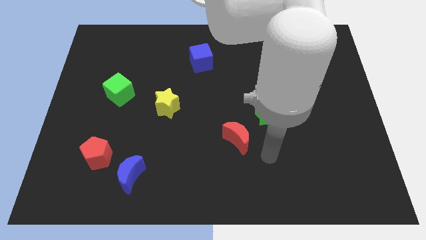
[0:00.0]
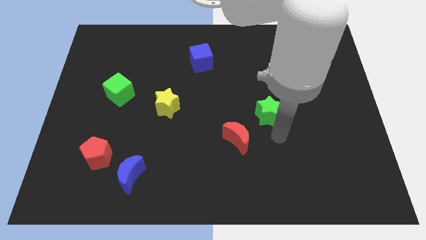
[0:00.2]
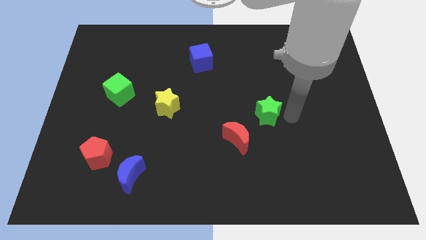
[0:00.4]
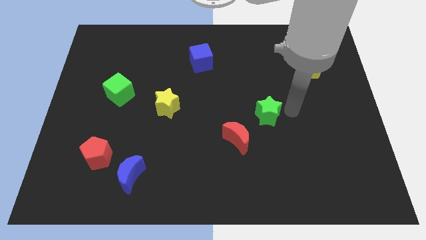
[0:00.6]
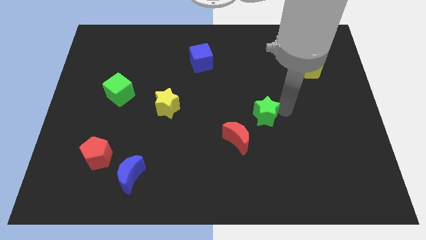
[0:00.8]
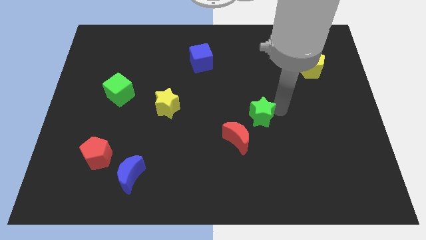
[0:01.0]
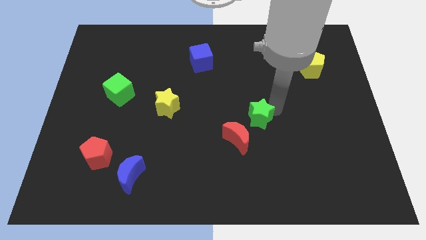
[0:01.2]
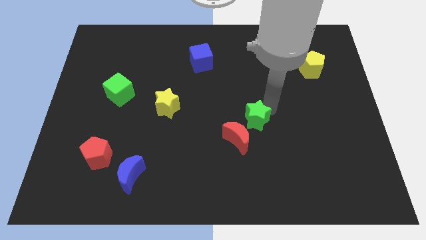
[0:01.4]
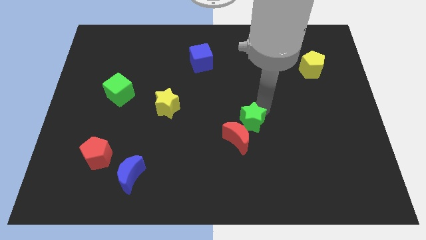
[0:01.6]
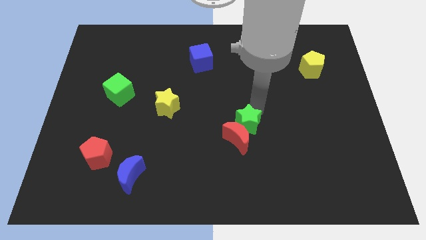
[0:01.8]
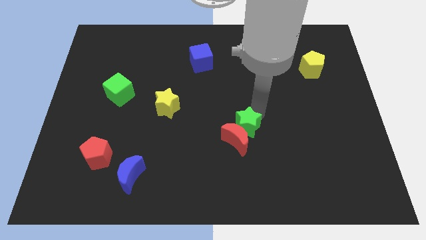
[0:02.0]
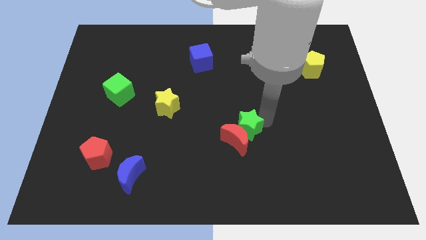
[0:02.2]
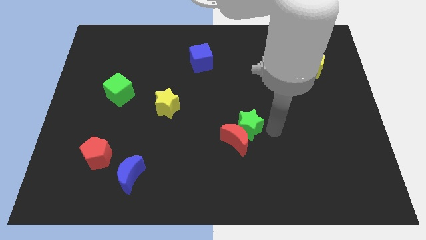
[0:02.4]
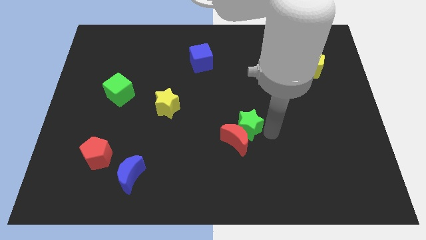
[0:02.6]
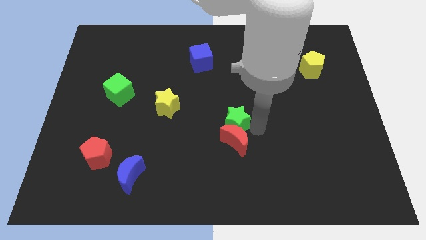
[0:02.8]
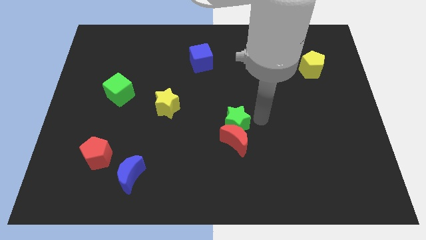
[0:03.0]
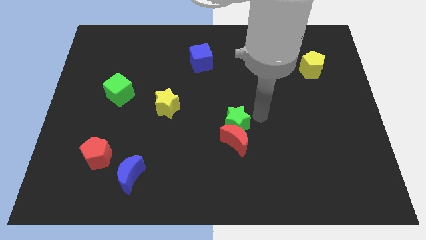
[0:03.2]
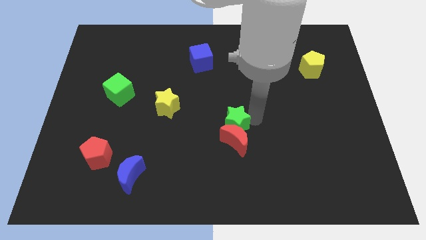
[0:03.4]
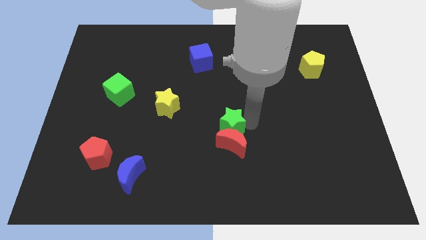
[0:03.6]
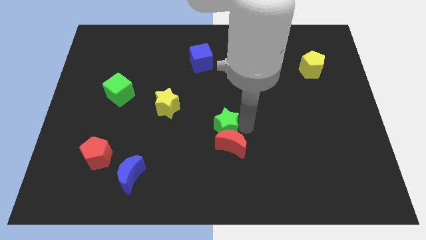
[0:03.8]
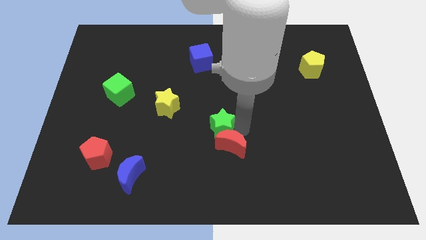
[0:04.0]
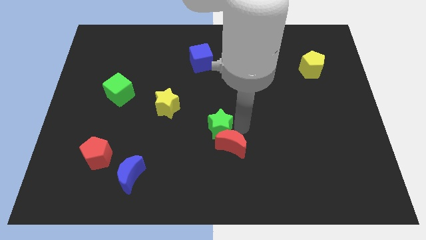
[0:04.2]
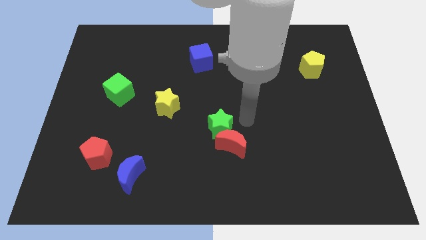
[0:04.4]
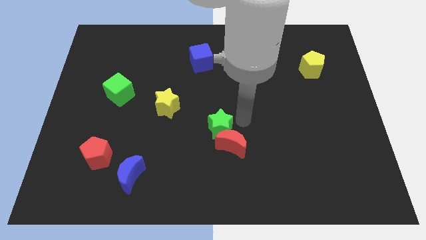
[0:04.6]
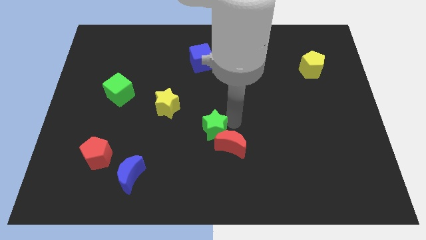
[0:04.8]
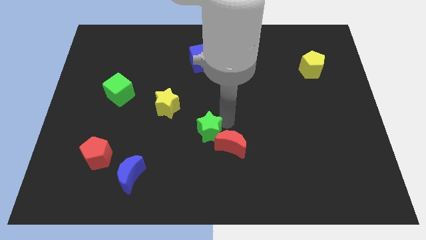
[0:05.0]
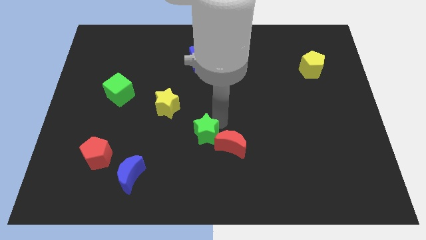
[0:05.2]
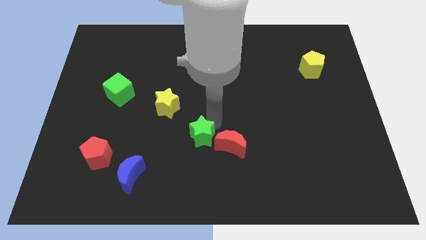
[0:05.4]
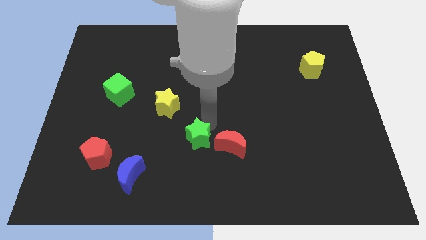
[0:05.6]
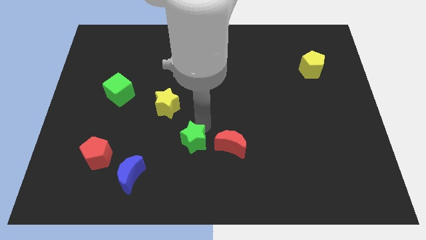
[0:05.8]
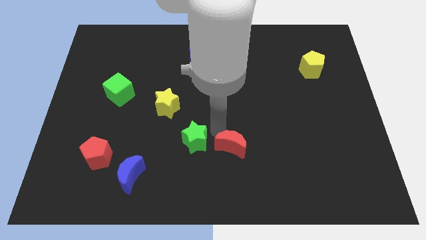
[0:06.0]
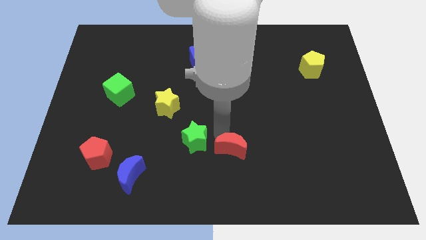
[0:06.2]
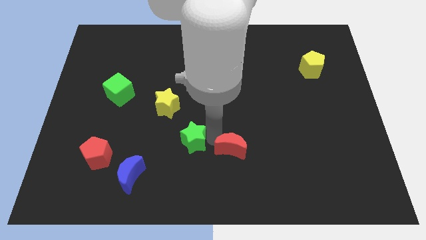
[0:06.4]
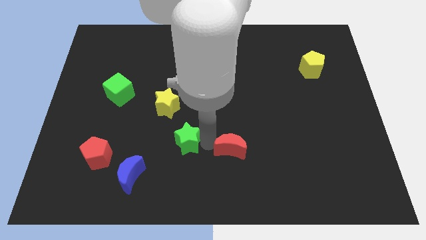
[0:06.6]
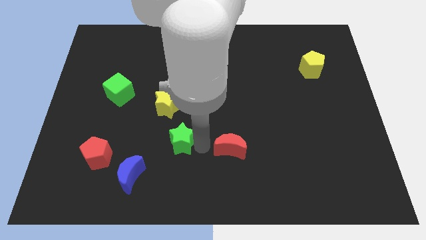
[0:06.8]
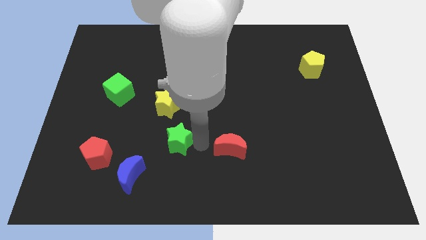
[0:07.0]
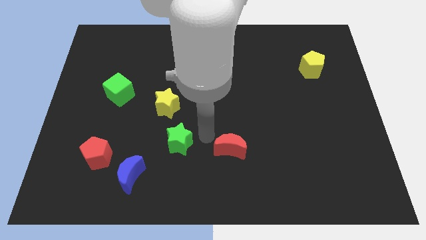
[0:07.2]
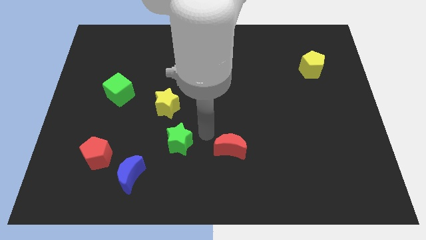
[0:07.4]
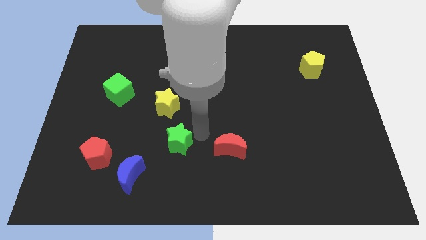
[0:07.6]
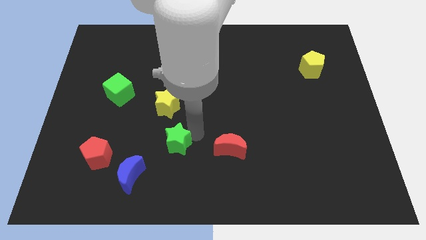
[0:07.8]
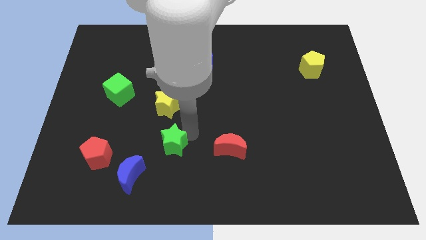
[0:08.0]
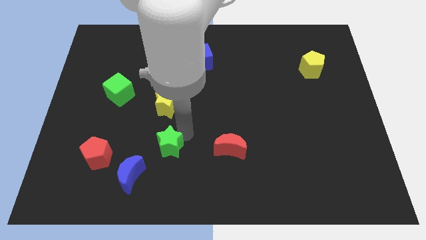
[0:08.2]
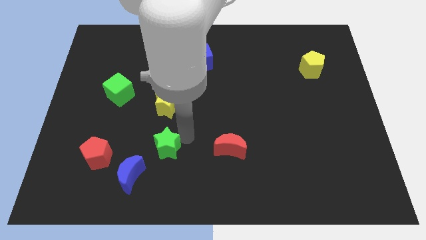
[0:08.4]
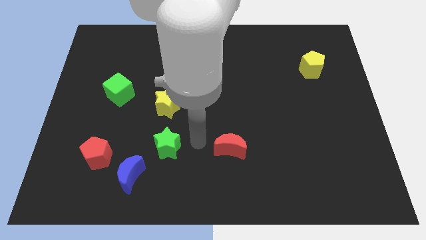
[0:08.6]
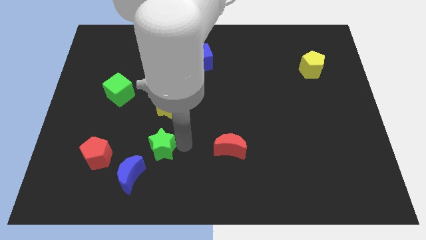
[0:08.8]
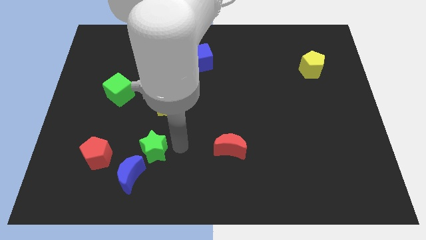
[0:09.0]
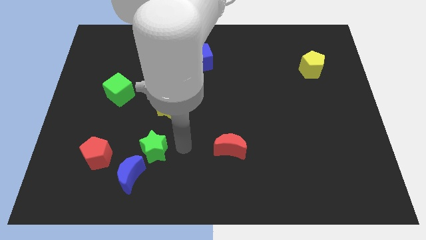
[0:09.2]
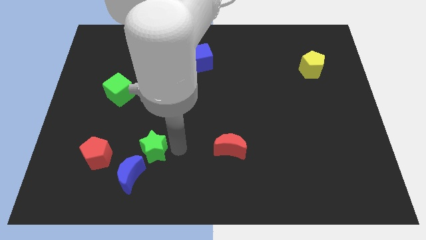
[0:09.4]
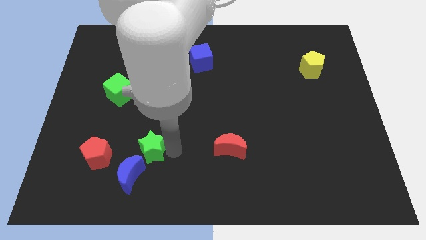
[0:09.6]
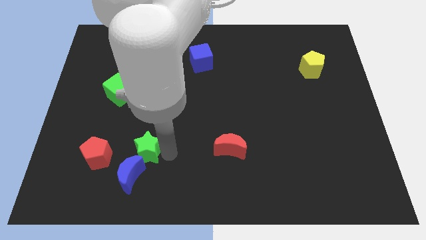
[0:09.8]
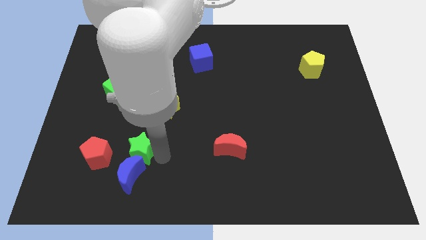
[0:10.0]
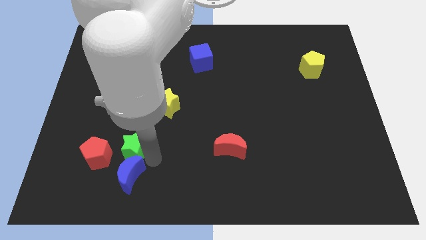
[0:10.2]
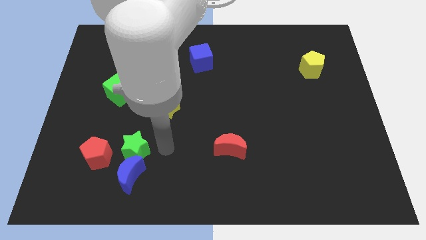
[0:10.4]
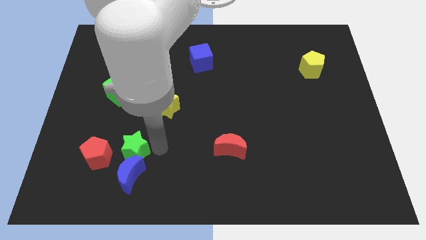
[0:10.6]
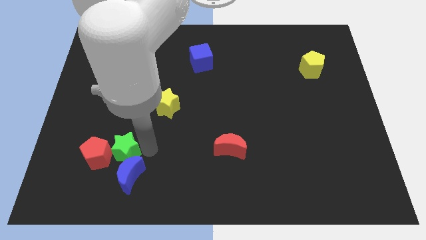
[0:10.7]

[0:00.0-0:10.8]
slide the green star close to the red pentagon
